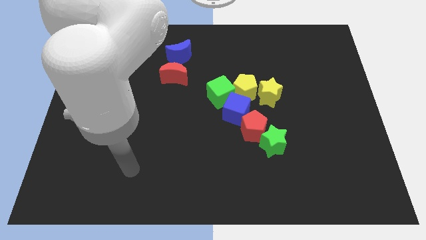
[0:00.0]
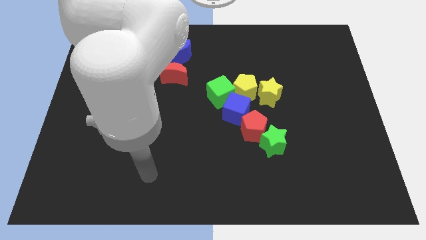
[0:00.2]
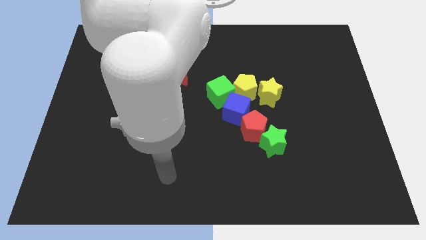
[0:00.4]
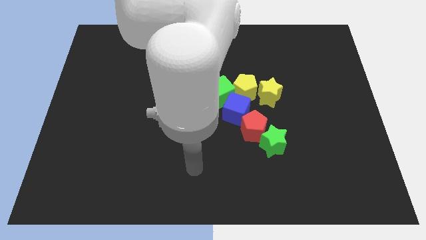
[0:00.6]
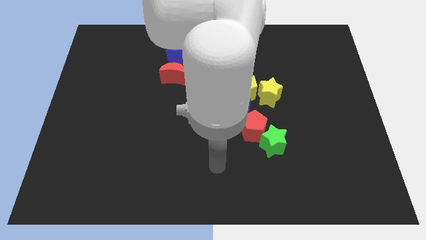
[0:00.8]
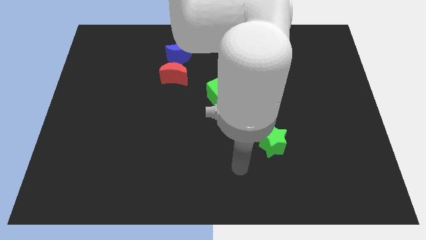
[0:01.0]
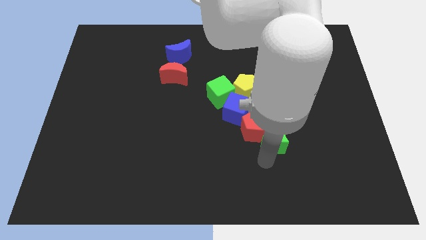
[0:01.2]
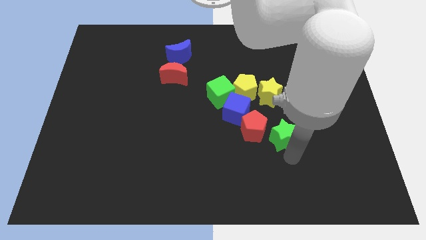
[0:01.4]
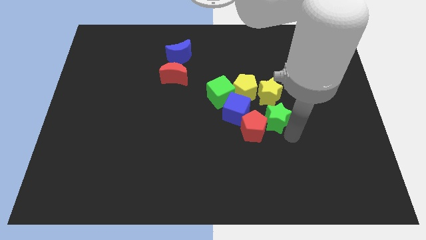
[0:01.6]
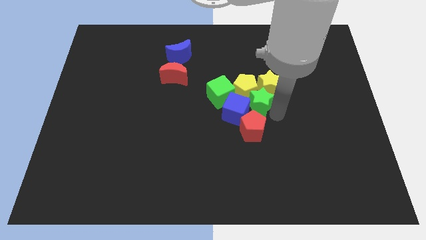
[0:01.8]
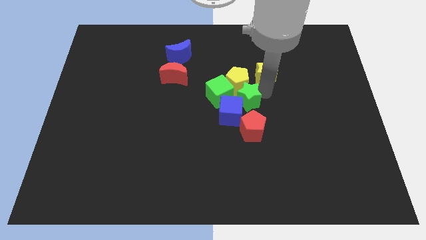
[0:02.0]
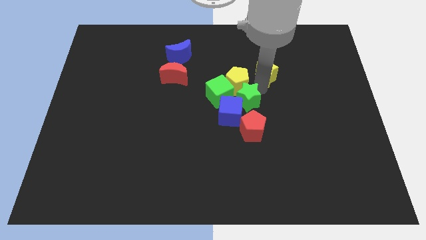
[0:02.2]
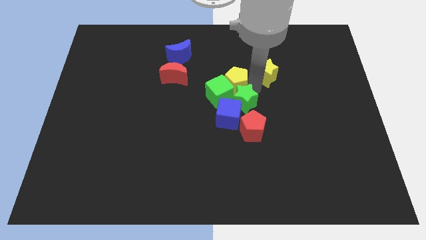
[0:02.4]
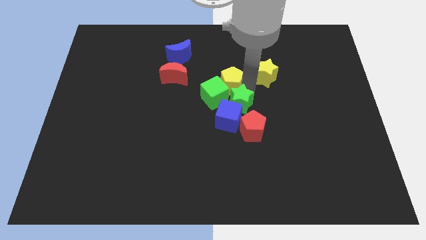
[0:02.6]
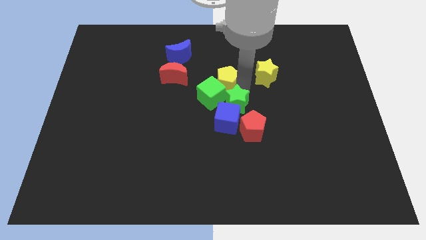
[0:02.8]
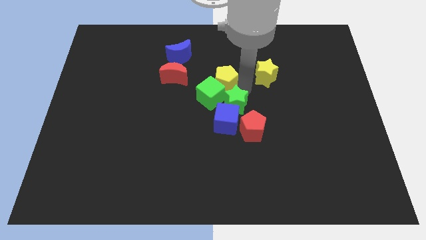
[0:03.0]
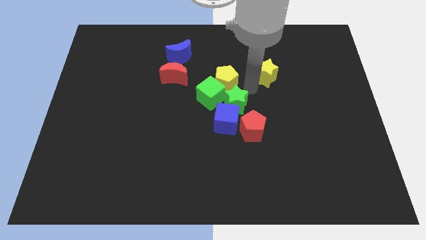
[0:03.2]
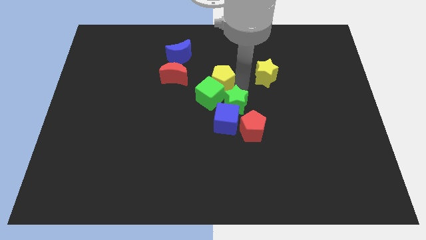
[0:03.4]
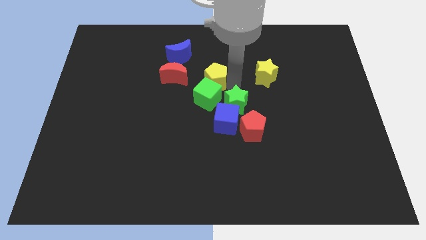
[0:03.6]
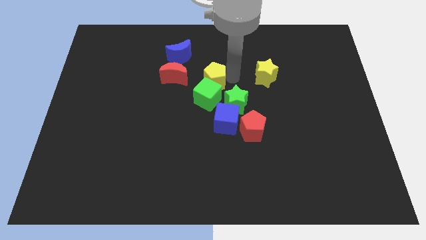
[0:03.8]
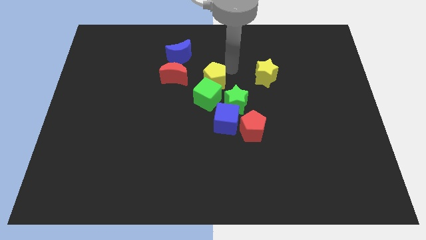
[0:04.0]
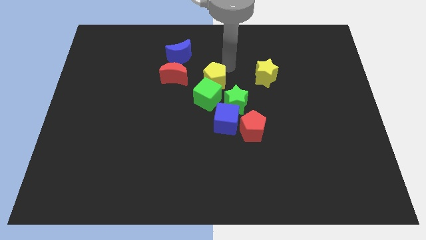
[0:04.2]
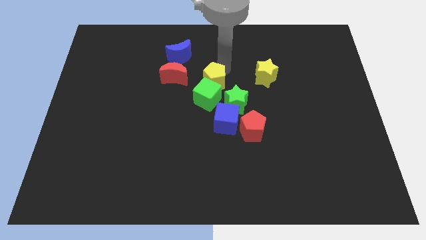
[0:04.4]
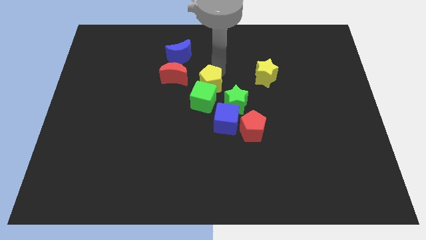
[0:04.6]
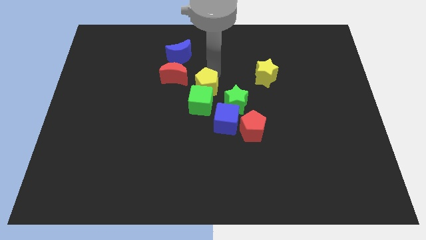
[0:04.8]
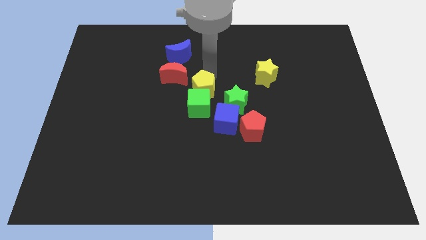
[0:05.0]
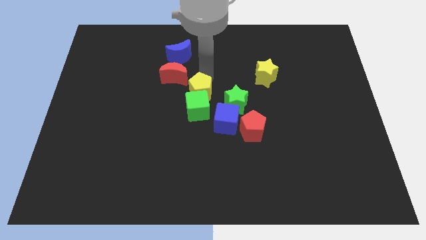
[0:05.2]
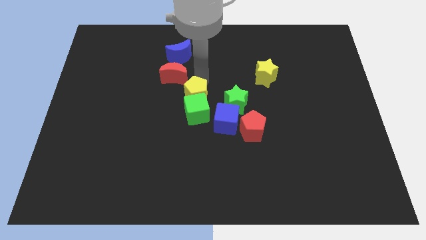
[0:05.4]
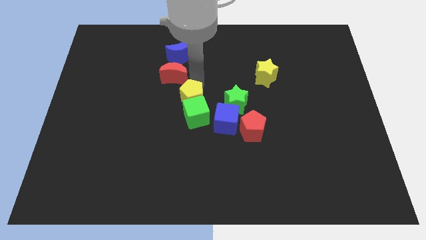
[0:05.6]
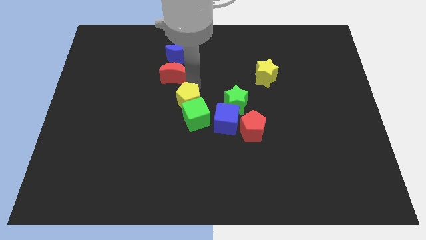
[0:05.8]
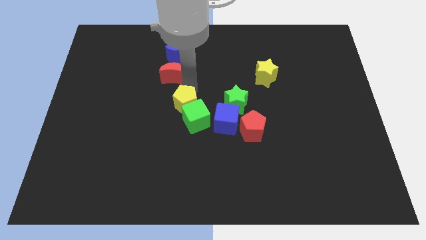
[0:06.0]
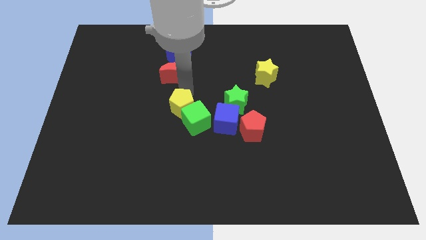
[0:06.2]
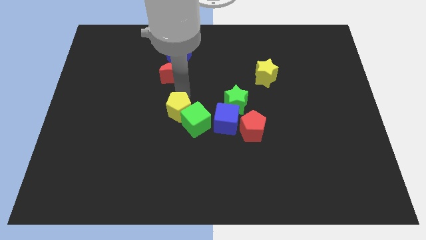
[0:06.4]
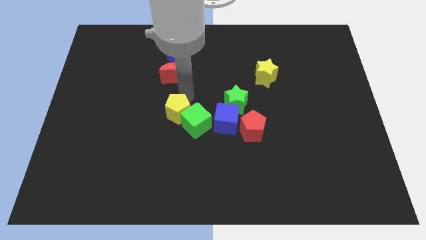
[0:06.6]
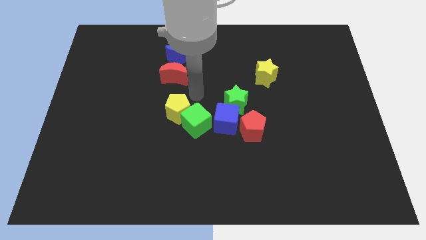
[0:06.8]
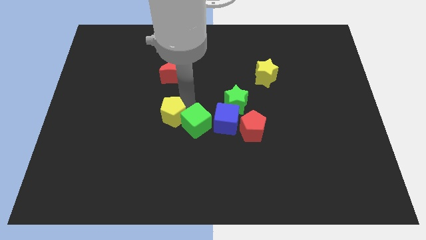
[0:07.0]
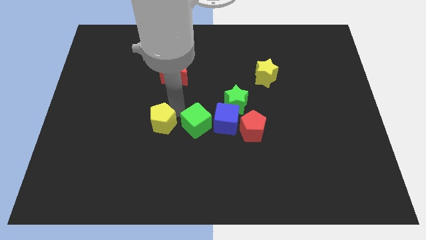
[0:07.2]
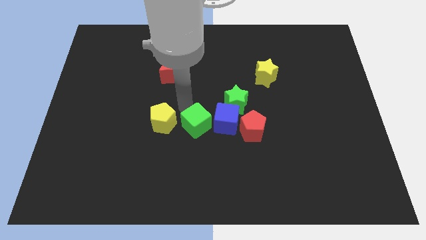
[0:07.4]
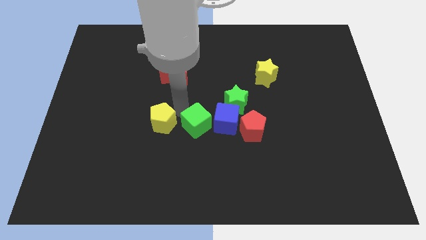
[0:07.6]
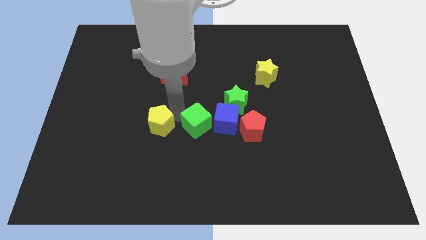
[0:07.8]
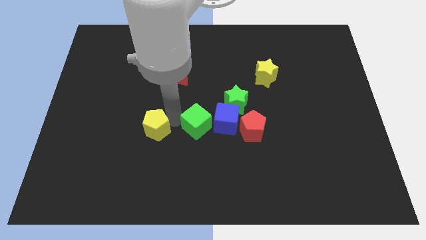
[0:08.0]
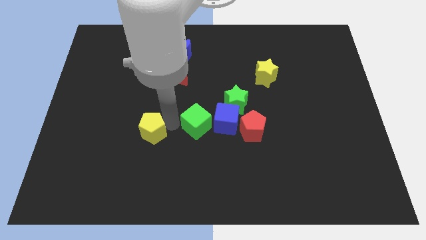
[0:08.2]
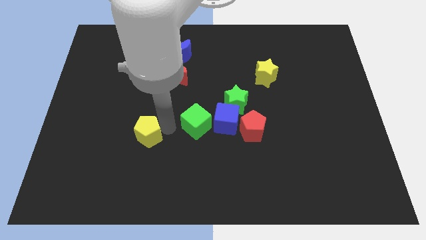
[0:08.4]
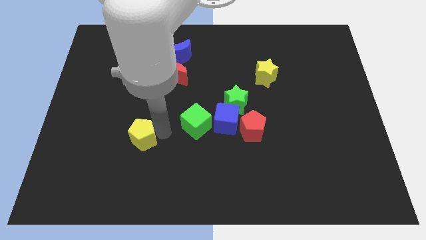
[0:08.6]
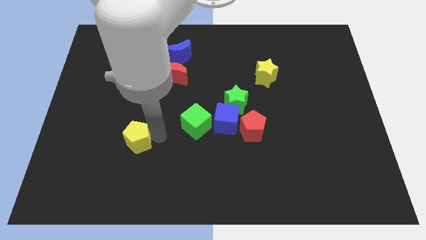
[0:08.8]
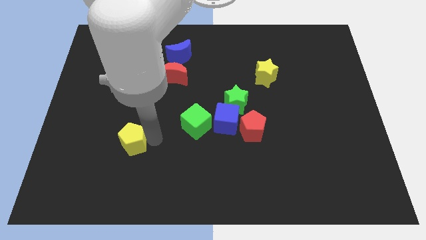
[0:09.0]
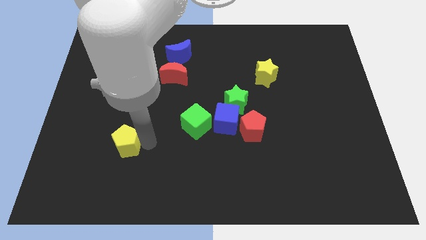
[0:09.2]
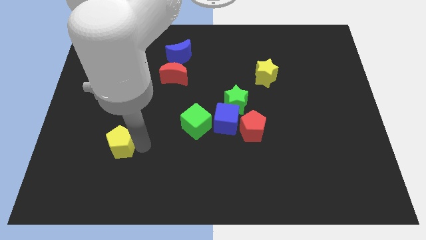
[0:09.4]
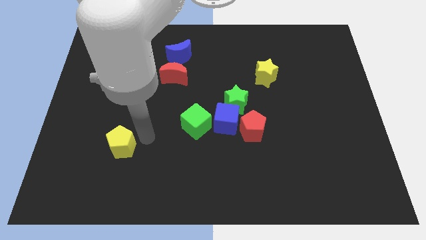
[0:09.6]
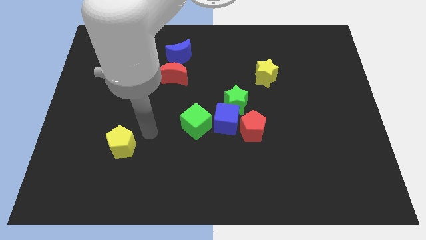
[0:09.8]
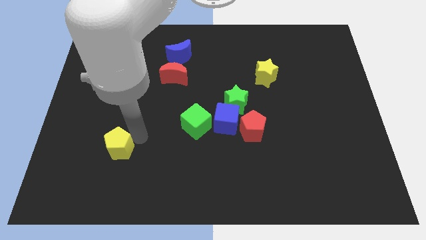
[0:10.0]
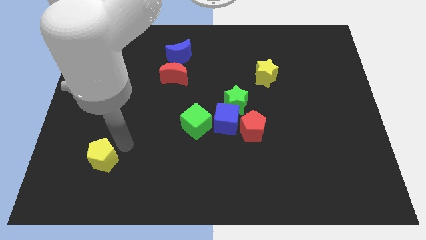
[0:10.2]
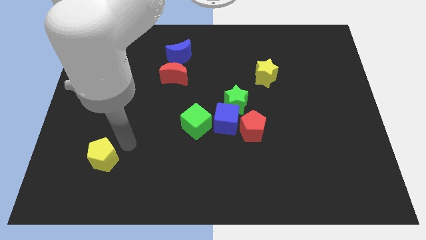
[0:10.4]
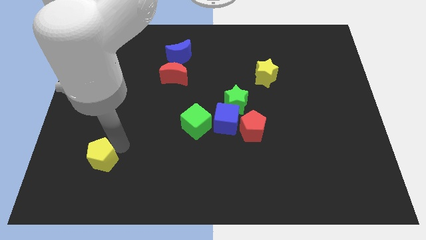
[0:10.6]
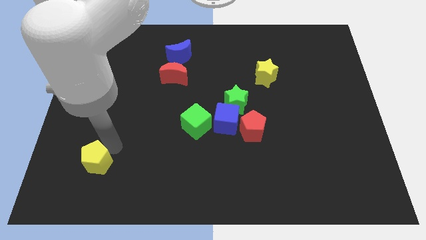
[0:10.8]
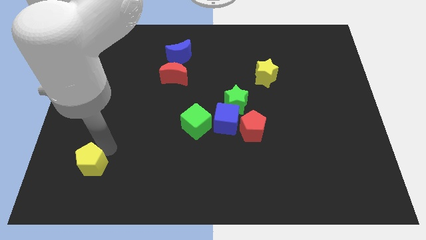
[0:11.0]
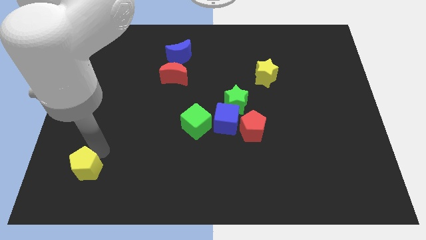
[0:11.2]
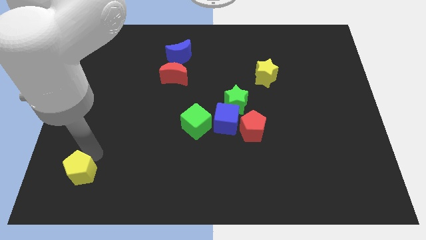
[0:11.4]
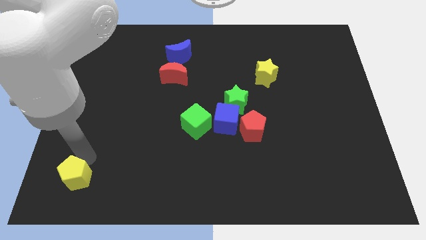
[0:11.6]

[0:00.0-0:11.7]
move the yellow pentagon to the bottom left of the board

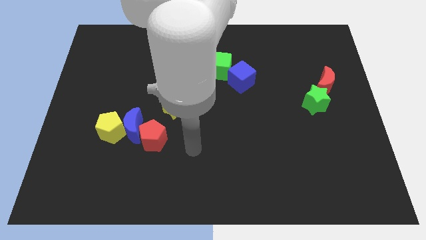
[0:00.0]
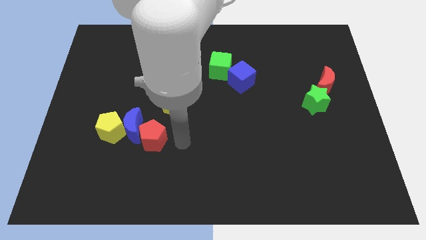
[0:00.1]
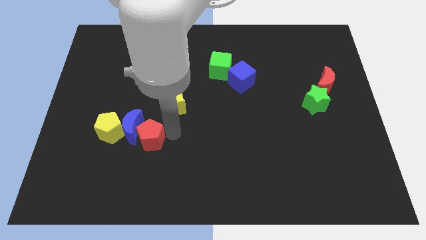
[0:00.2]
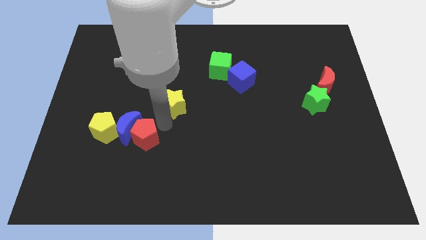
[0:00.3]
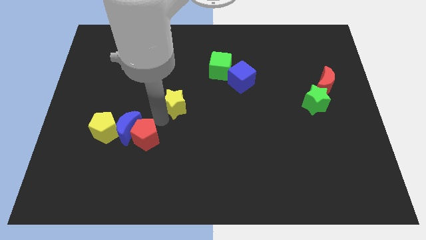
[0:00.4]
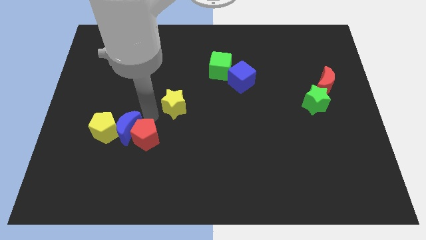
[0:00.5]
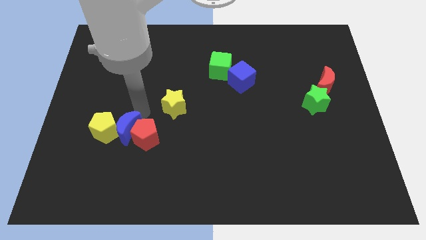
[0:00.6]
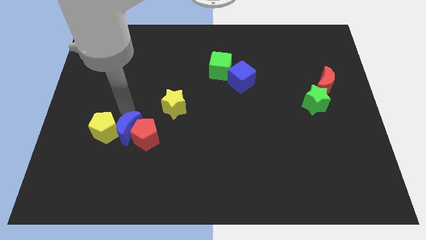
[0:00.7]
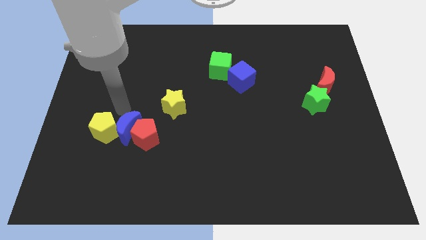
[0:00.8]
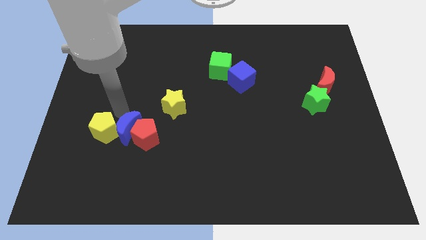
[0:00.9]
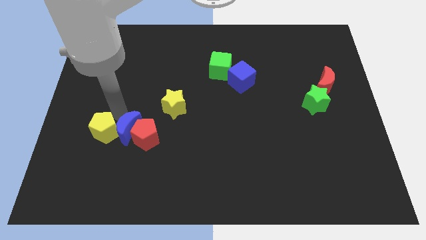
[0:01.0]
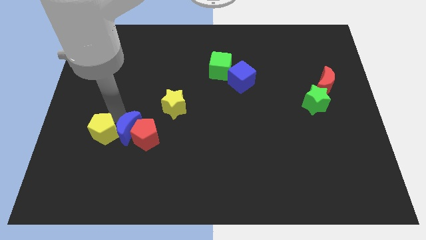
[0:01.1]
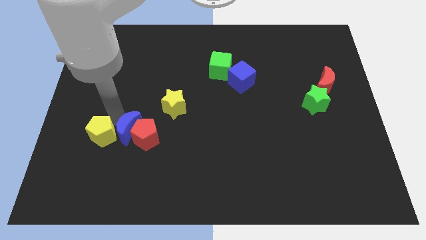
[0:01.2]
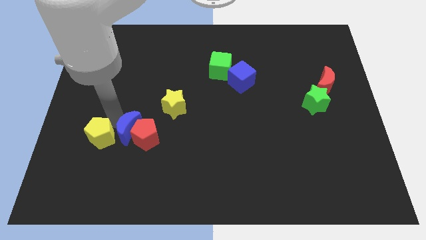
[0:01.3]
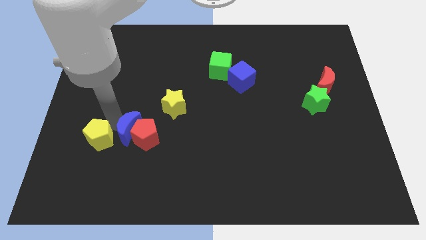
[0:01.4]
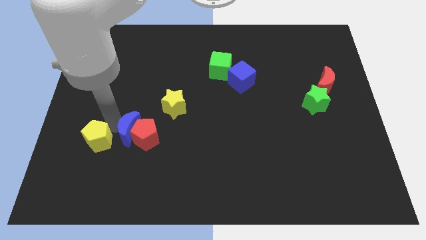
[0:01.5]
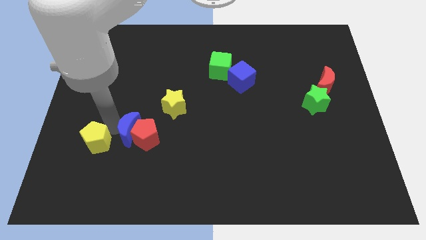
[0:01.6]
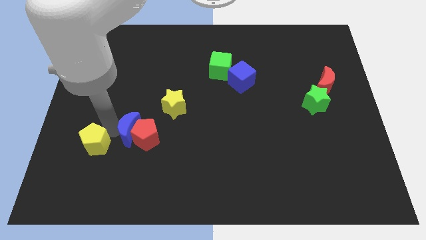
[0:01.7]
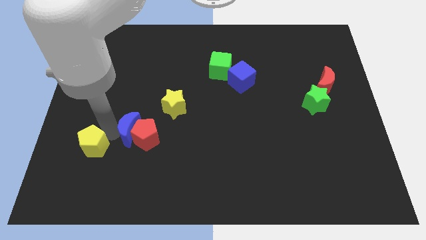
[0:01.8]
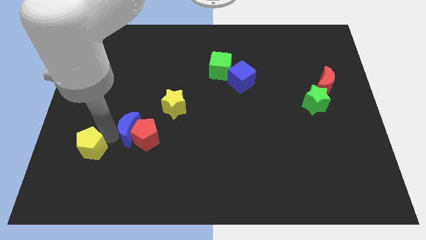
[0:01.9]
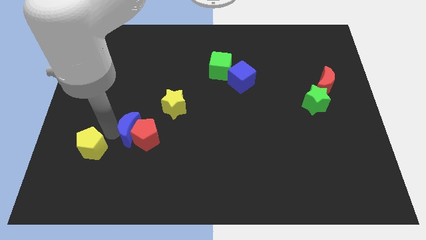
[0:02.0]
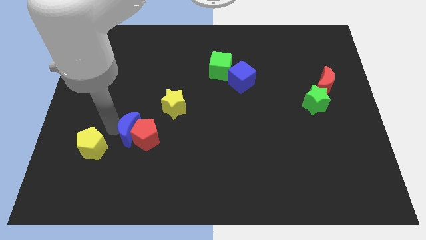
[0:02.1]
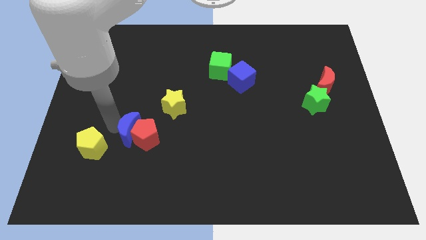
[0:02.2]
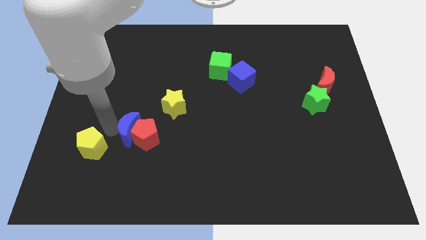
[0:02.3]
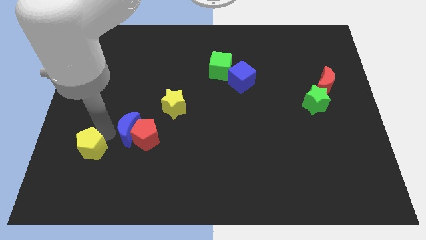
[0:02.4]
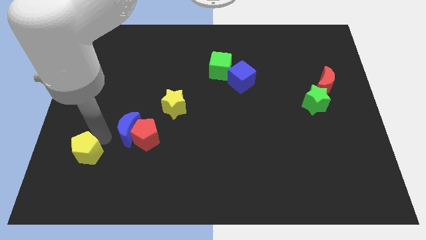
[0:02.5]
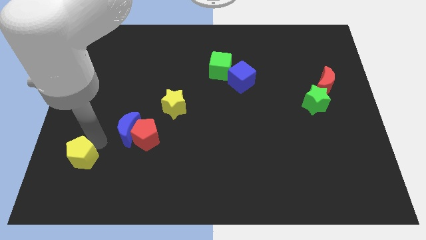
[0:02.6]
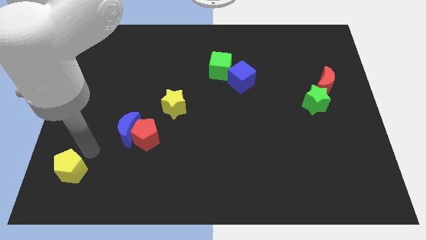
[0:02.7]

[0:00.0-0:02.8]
move the yellow pentagon to the bottom left corner
